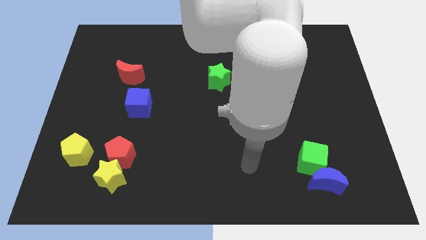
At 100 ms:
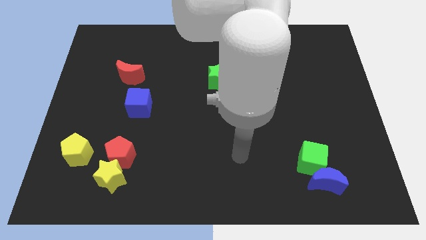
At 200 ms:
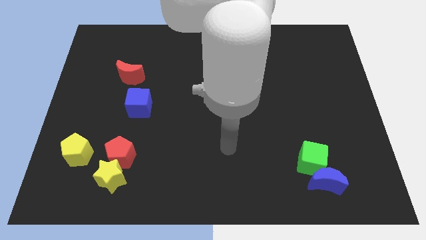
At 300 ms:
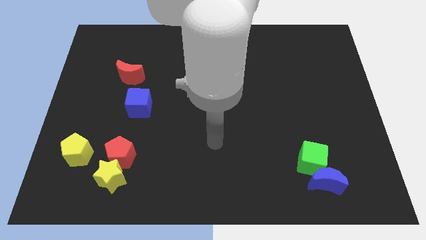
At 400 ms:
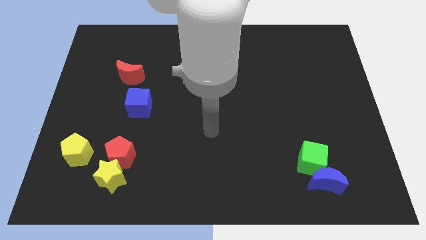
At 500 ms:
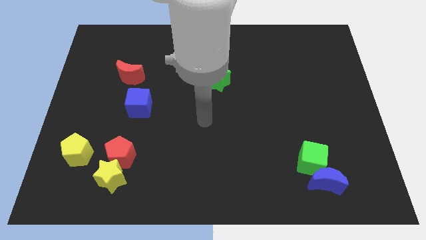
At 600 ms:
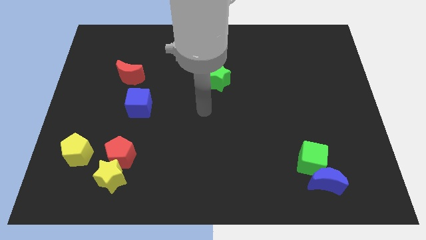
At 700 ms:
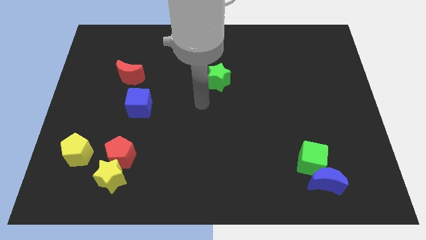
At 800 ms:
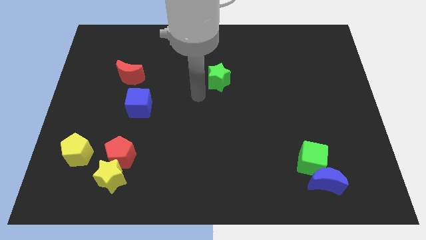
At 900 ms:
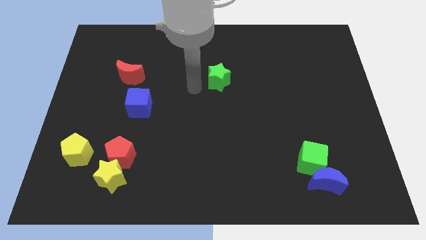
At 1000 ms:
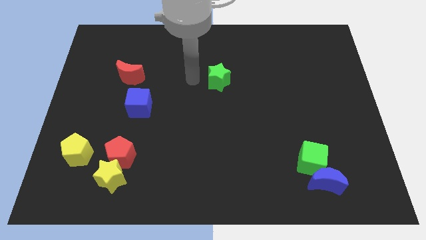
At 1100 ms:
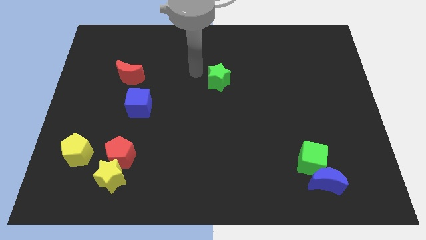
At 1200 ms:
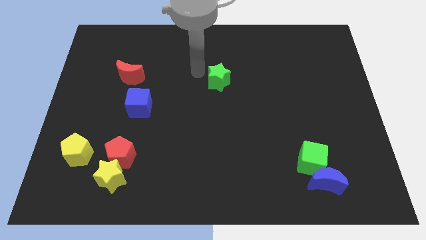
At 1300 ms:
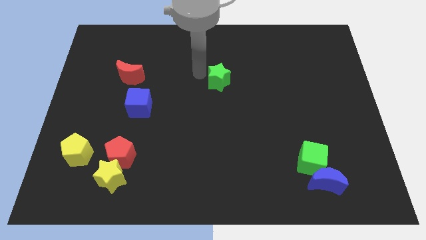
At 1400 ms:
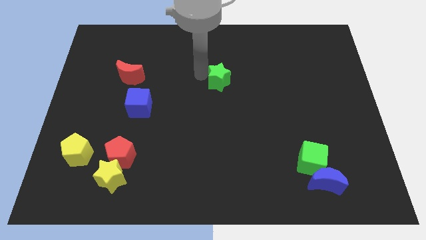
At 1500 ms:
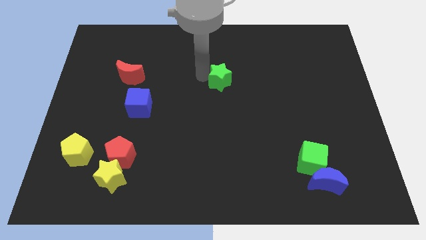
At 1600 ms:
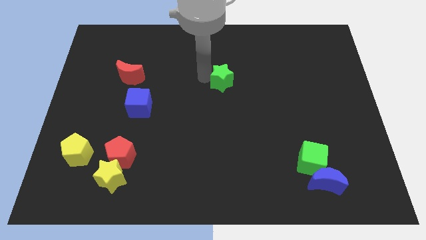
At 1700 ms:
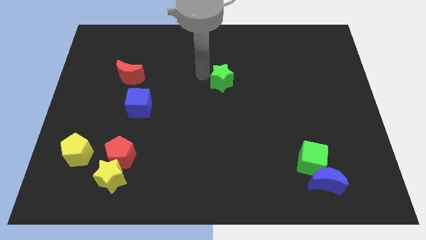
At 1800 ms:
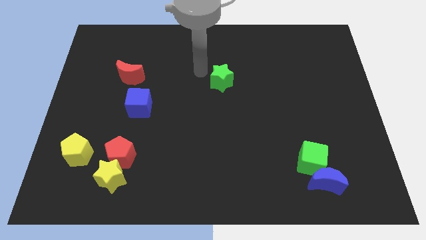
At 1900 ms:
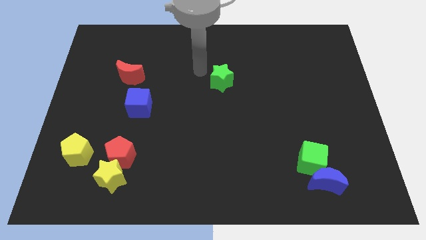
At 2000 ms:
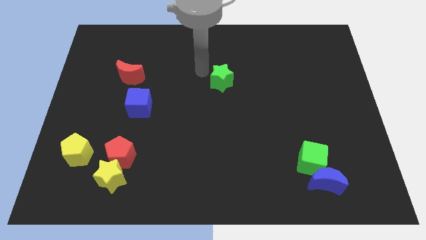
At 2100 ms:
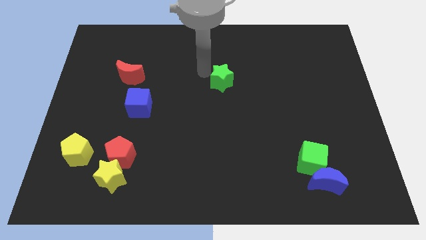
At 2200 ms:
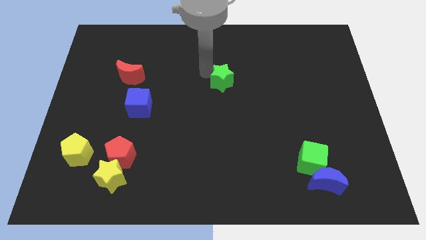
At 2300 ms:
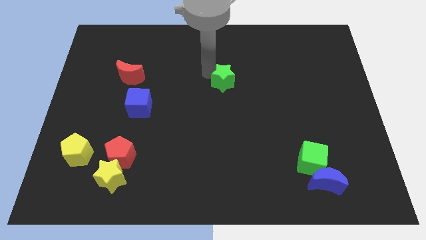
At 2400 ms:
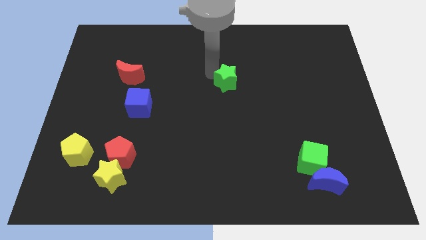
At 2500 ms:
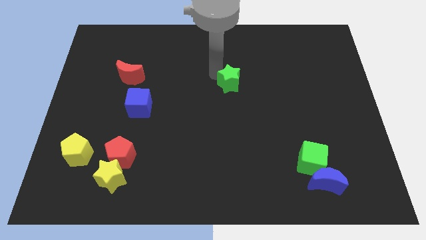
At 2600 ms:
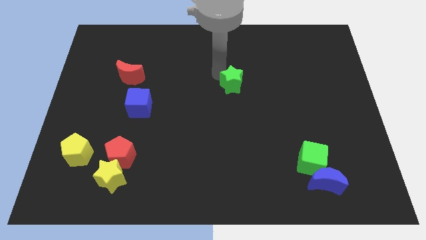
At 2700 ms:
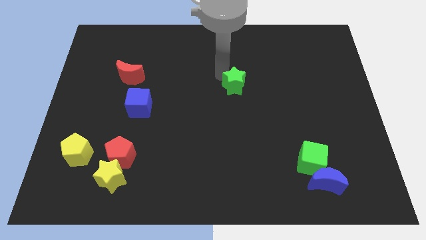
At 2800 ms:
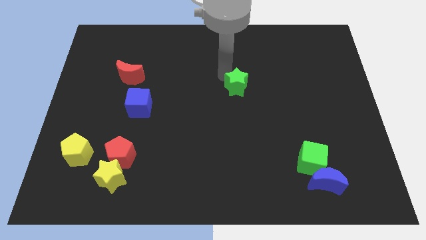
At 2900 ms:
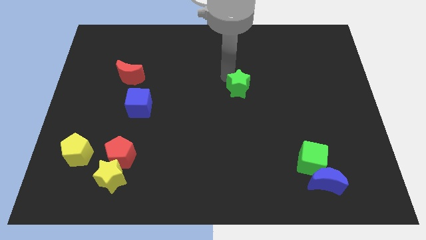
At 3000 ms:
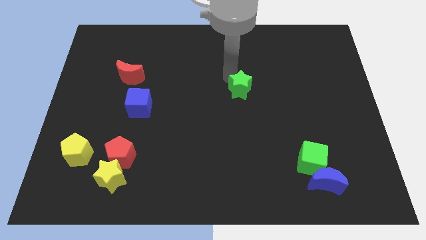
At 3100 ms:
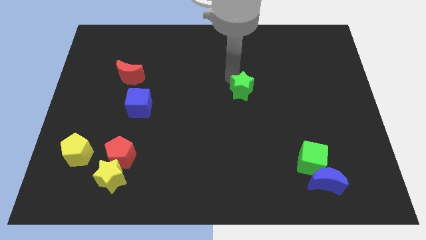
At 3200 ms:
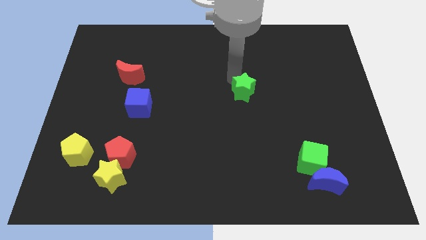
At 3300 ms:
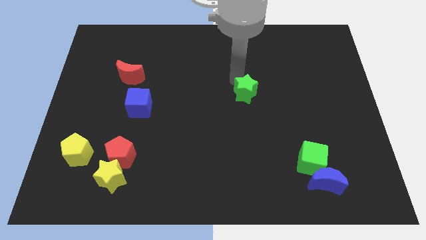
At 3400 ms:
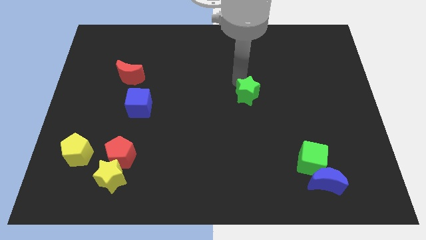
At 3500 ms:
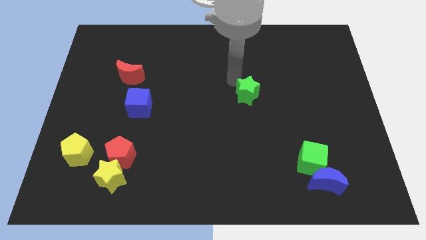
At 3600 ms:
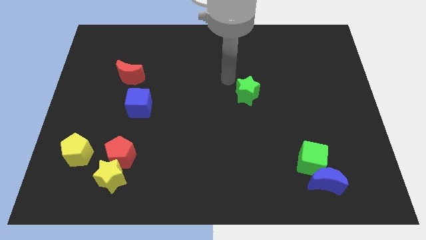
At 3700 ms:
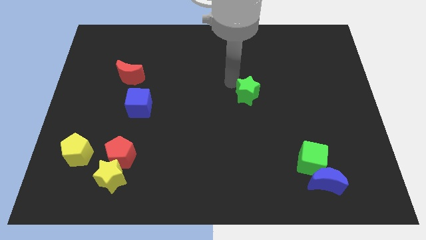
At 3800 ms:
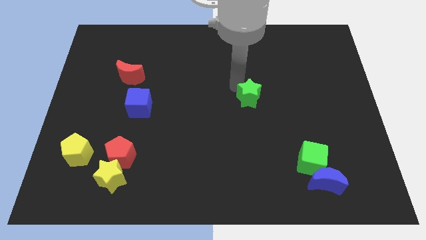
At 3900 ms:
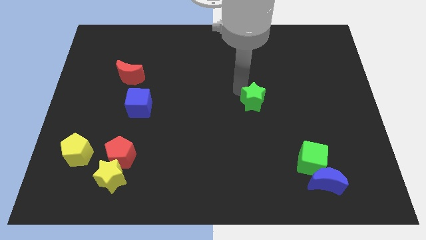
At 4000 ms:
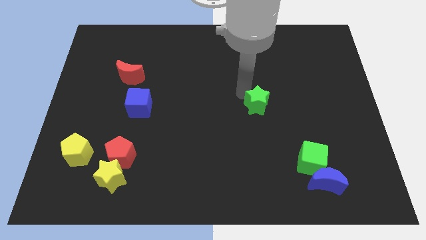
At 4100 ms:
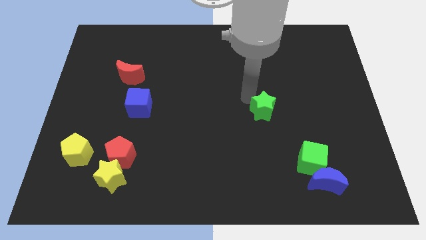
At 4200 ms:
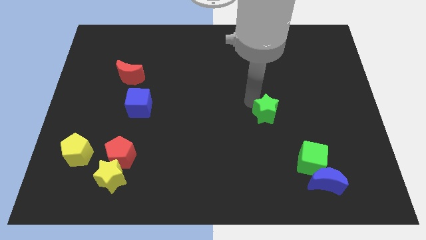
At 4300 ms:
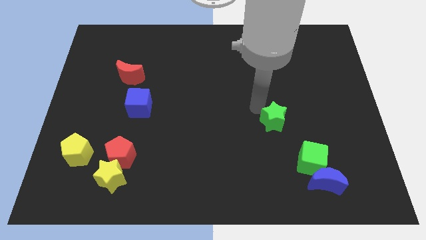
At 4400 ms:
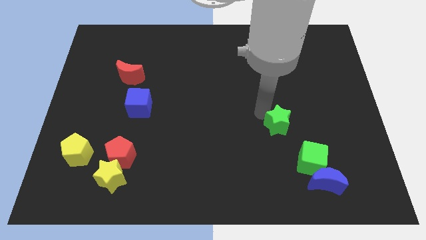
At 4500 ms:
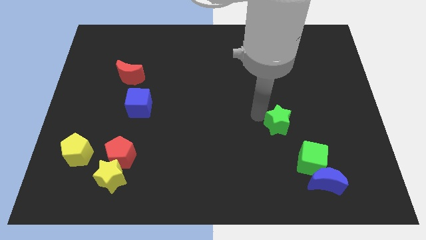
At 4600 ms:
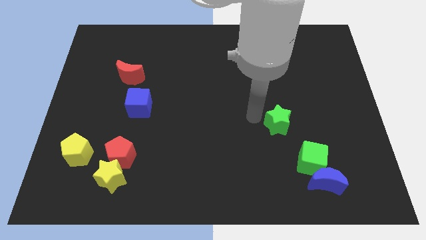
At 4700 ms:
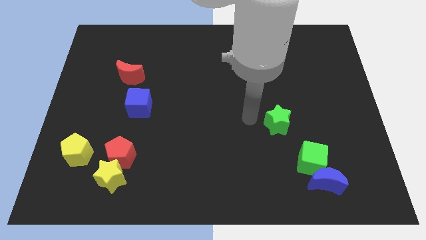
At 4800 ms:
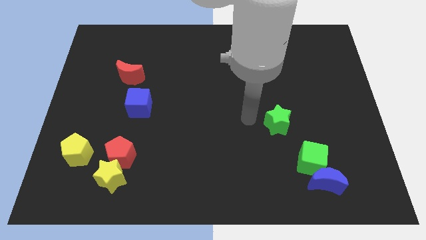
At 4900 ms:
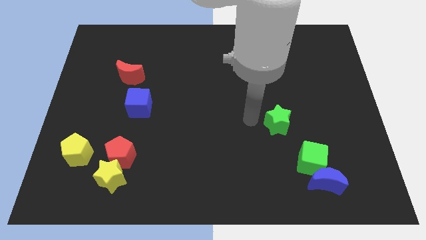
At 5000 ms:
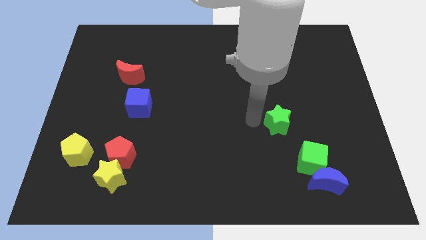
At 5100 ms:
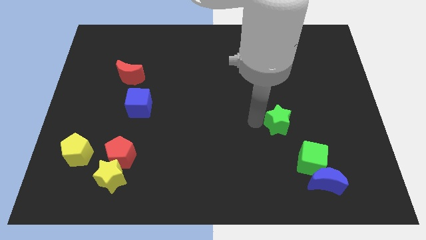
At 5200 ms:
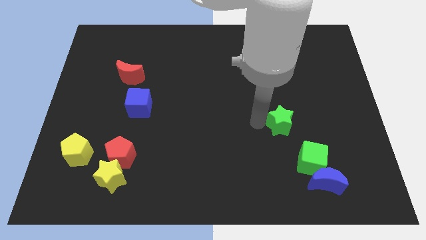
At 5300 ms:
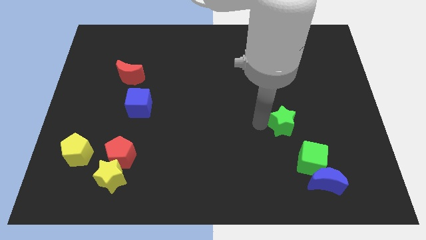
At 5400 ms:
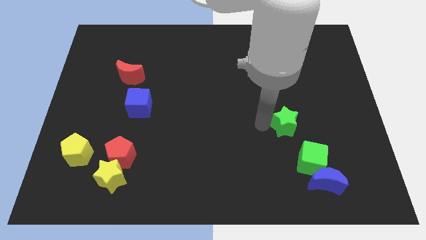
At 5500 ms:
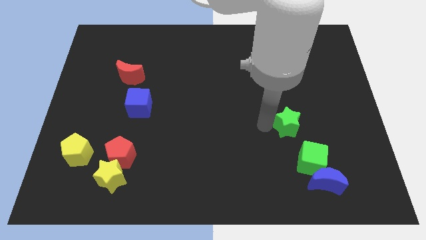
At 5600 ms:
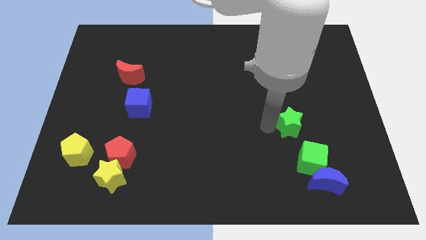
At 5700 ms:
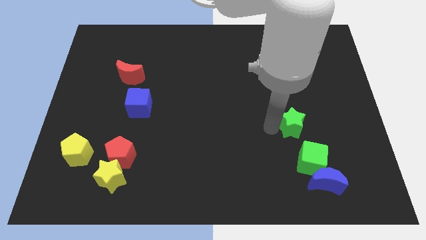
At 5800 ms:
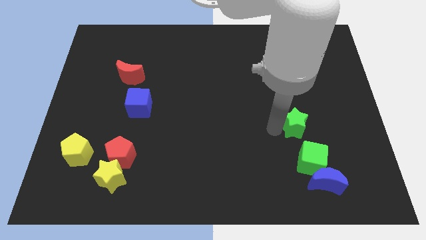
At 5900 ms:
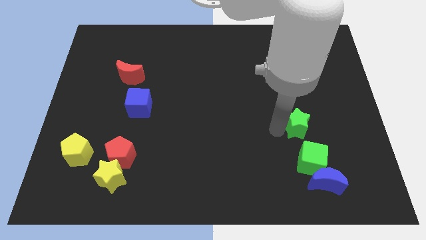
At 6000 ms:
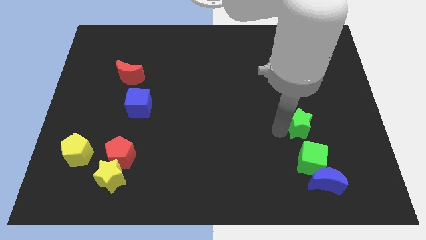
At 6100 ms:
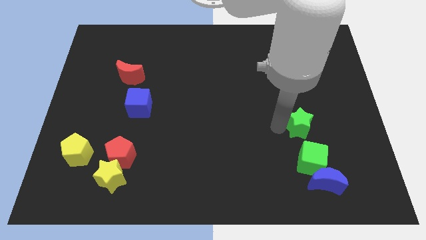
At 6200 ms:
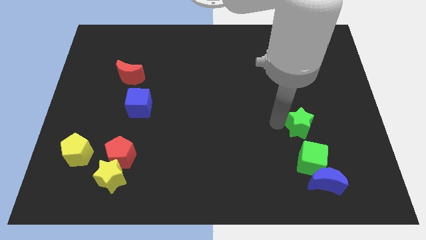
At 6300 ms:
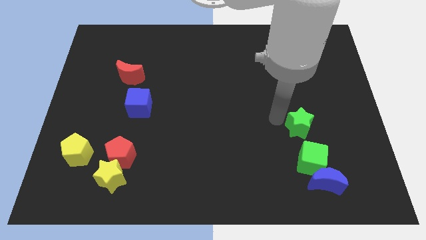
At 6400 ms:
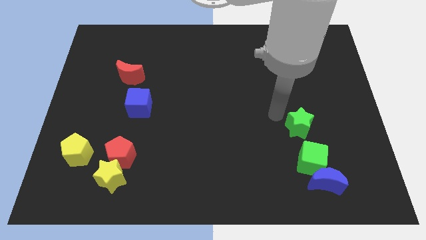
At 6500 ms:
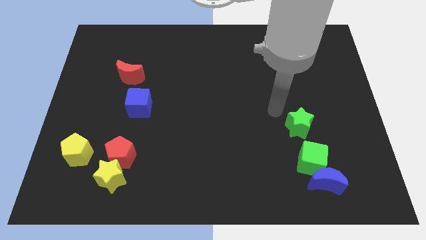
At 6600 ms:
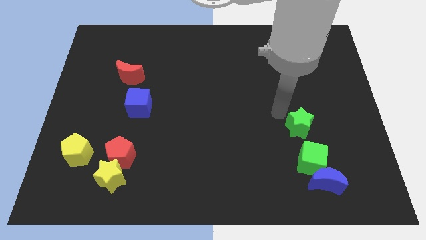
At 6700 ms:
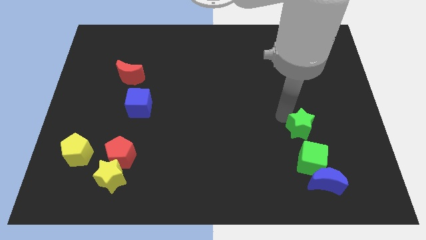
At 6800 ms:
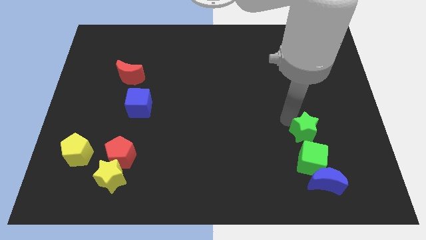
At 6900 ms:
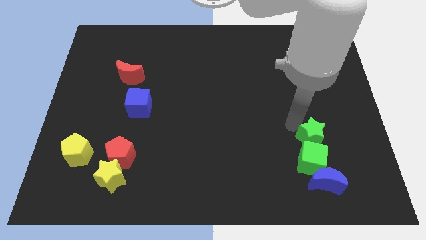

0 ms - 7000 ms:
slide the green star to the top right side of the green cube

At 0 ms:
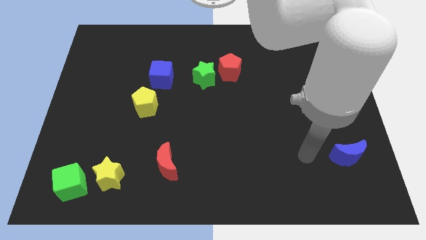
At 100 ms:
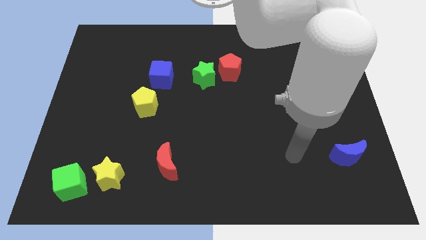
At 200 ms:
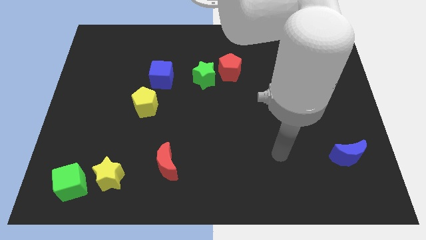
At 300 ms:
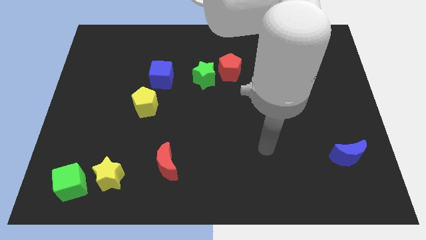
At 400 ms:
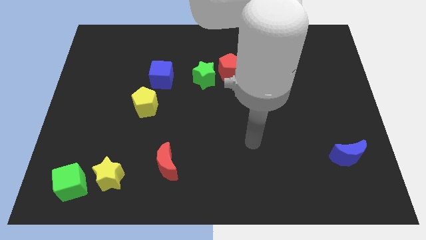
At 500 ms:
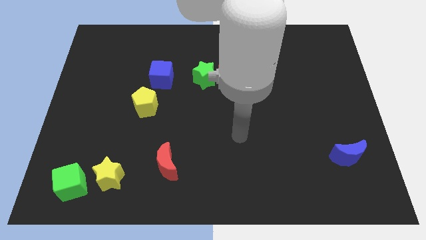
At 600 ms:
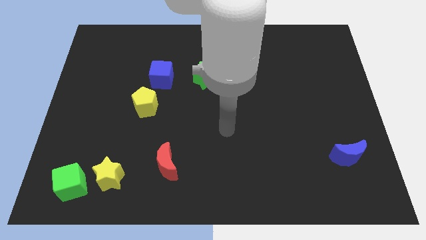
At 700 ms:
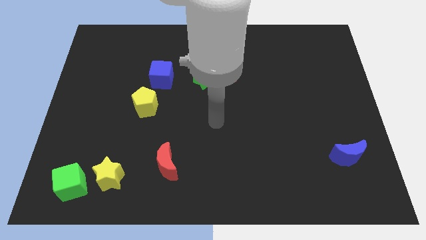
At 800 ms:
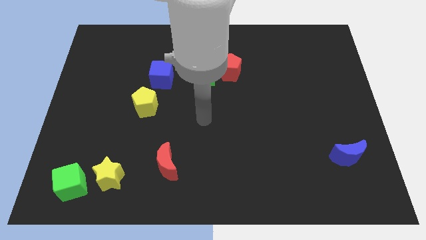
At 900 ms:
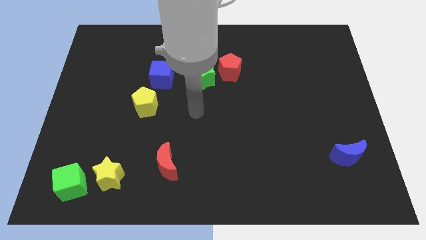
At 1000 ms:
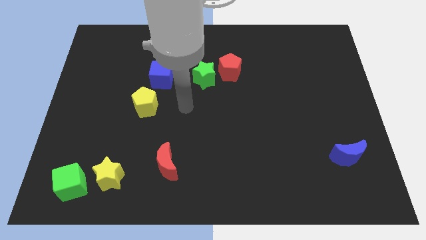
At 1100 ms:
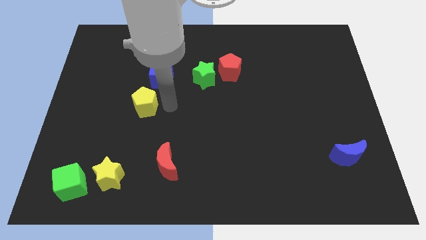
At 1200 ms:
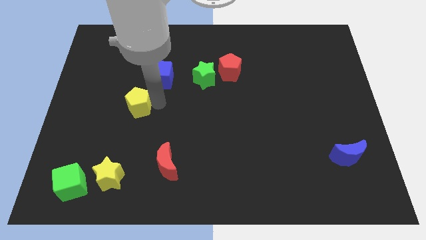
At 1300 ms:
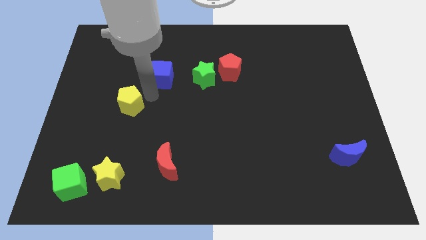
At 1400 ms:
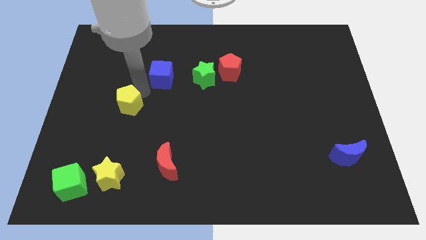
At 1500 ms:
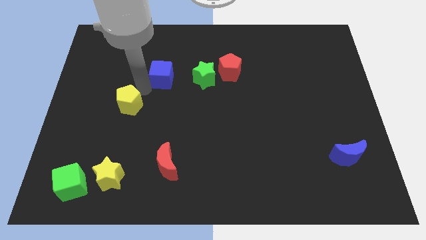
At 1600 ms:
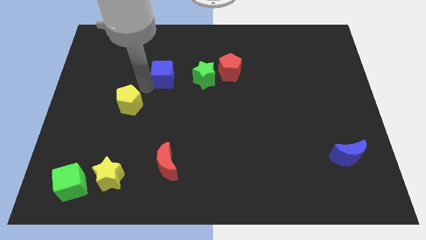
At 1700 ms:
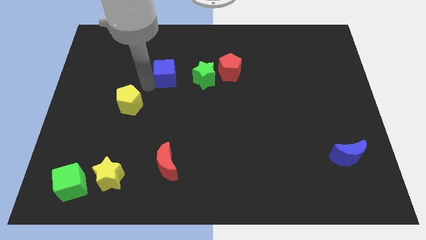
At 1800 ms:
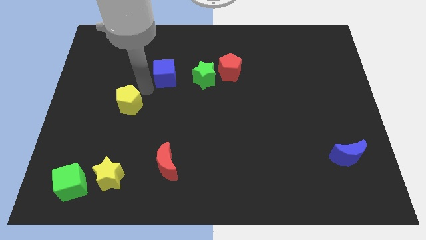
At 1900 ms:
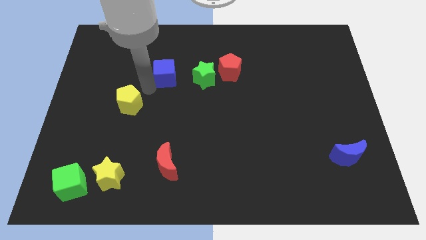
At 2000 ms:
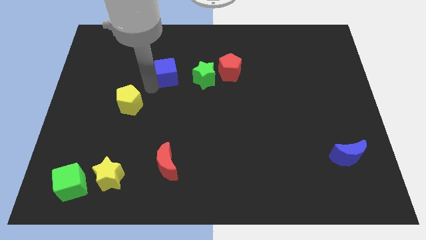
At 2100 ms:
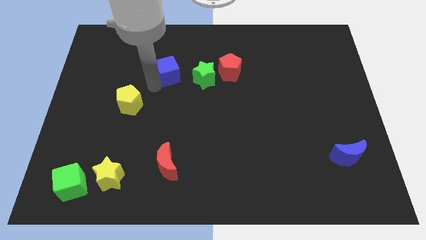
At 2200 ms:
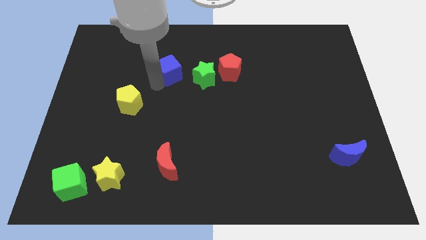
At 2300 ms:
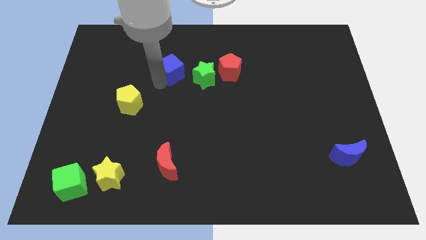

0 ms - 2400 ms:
put the blue cube to the top left of the green star
